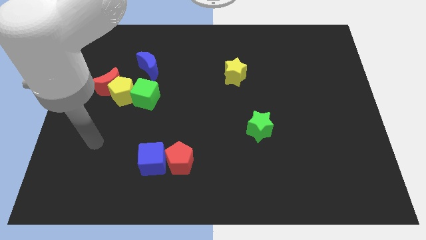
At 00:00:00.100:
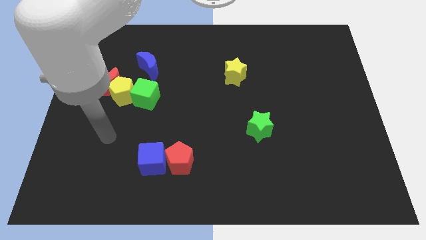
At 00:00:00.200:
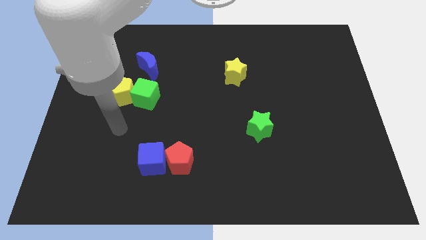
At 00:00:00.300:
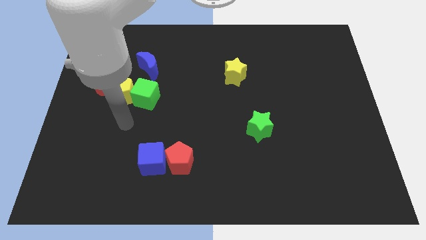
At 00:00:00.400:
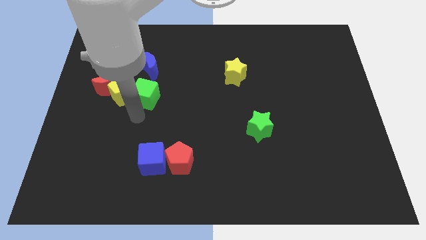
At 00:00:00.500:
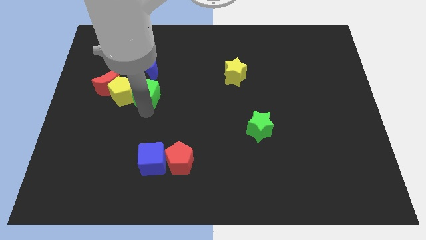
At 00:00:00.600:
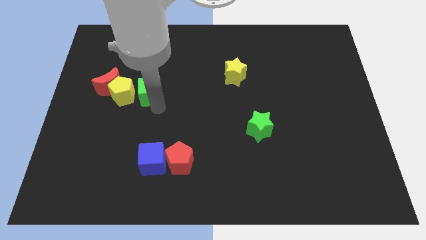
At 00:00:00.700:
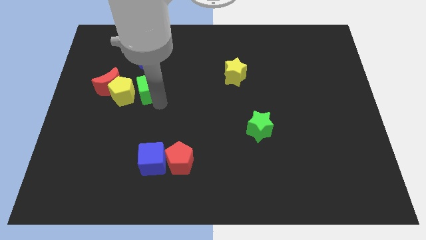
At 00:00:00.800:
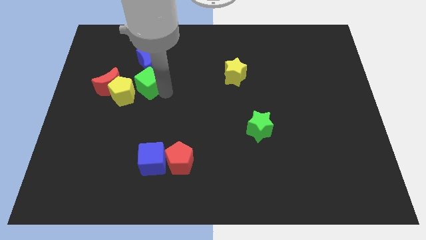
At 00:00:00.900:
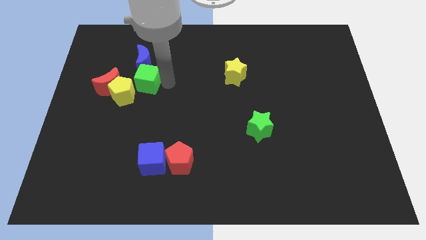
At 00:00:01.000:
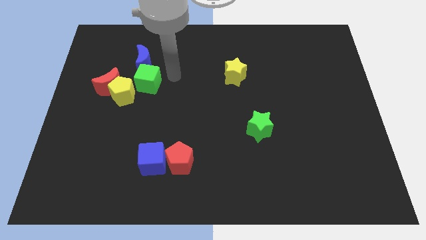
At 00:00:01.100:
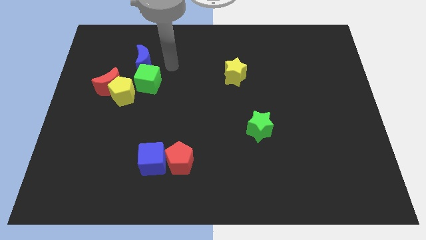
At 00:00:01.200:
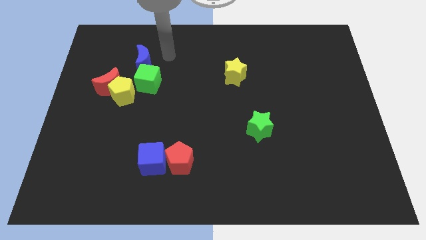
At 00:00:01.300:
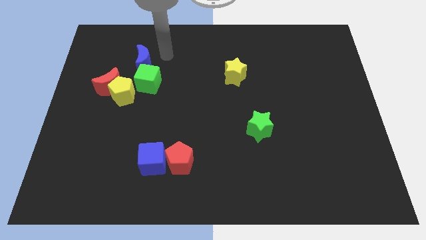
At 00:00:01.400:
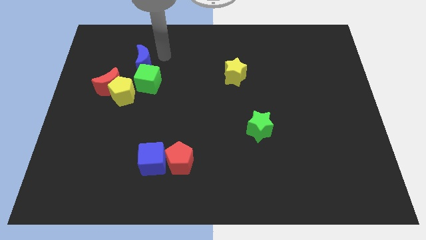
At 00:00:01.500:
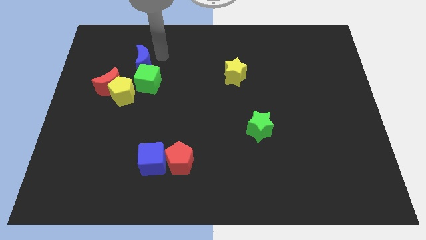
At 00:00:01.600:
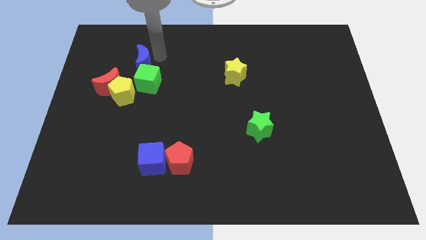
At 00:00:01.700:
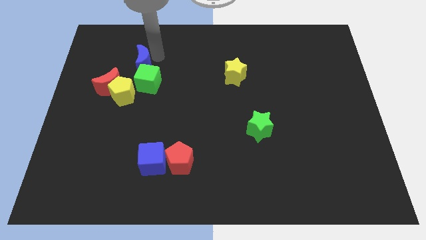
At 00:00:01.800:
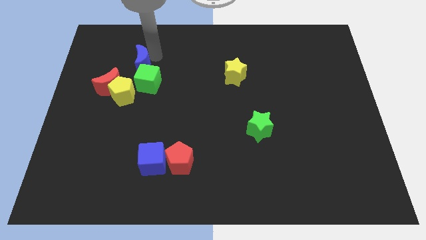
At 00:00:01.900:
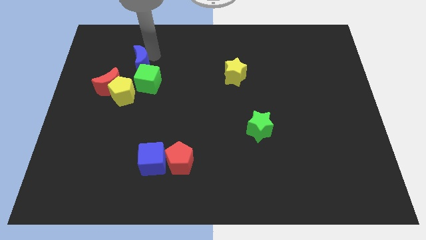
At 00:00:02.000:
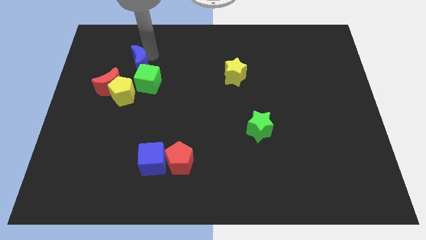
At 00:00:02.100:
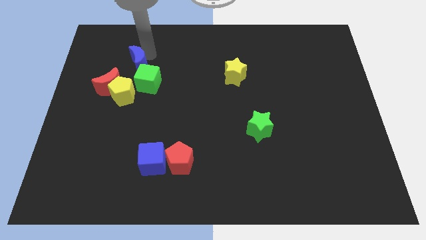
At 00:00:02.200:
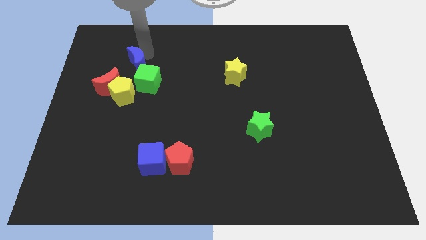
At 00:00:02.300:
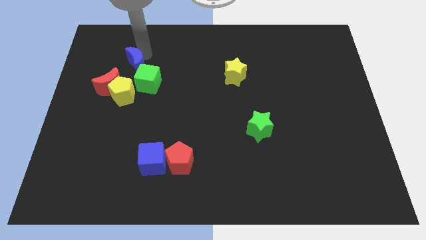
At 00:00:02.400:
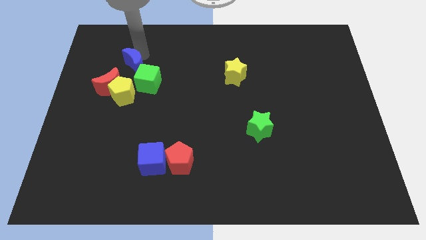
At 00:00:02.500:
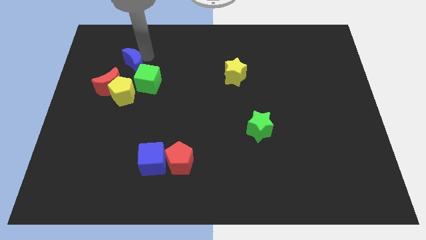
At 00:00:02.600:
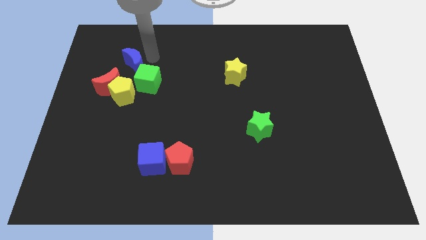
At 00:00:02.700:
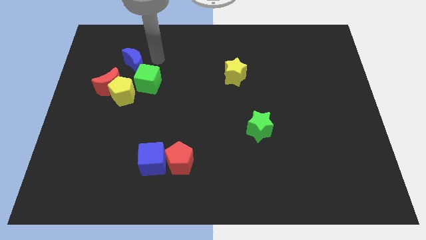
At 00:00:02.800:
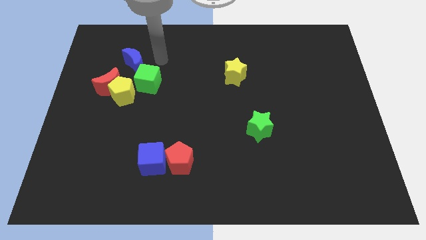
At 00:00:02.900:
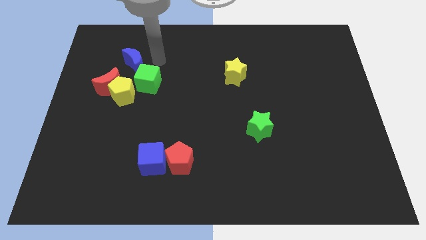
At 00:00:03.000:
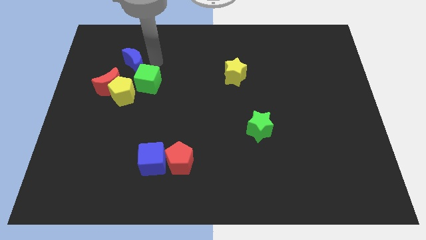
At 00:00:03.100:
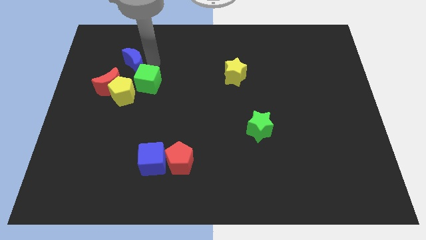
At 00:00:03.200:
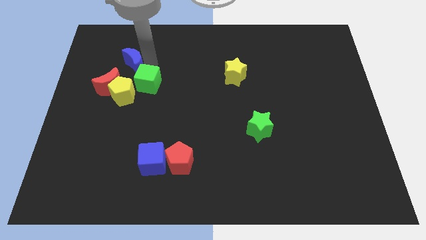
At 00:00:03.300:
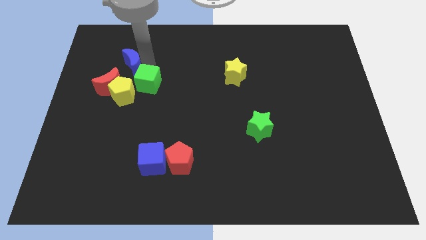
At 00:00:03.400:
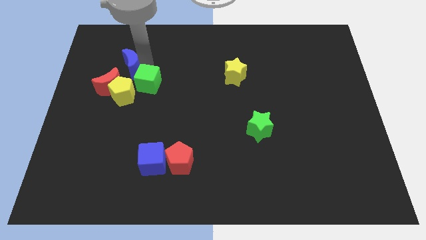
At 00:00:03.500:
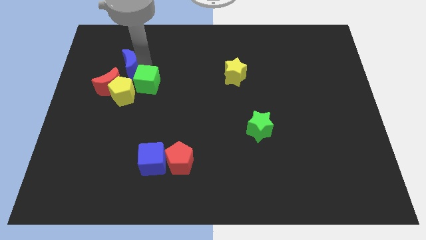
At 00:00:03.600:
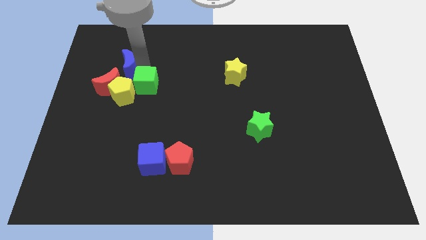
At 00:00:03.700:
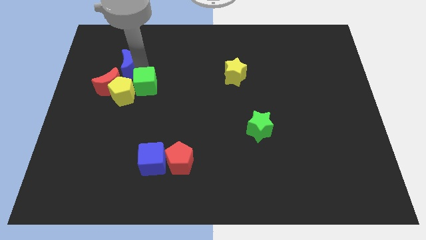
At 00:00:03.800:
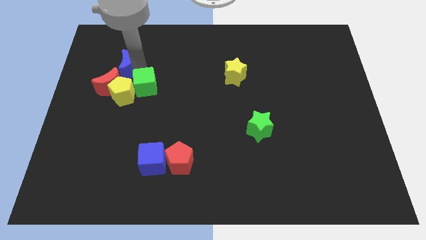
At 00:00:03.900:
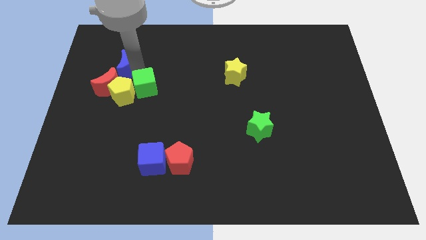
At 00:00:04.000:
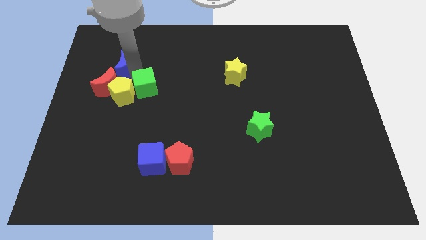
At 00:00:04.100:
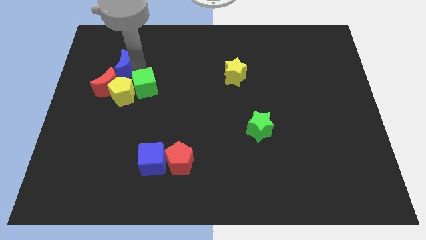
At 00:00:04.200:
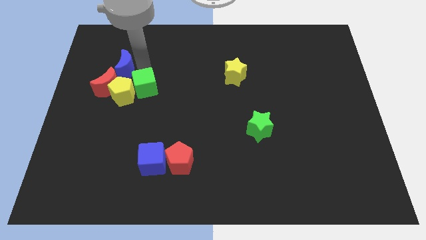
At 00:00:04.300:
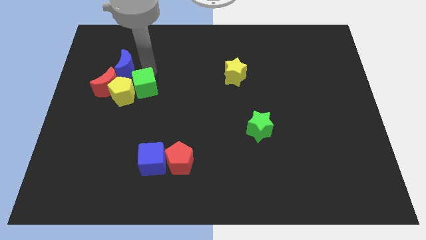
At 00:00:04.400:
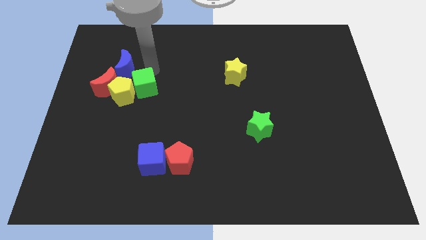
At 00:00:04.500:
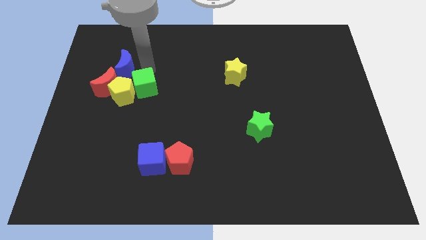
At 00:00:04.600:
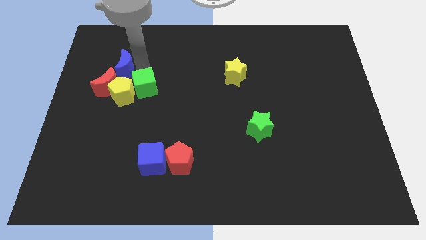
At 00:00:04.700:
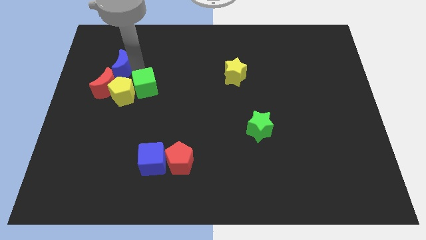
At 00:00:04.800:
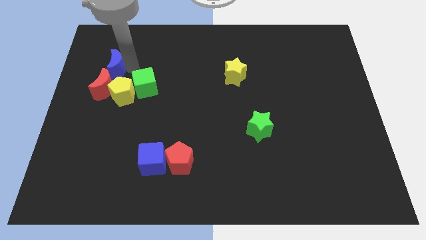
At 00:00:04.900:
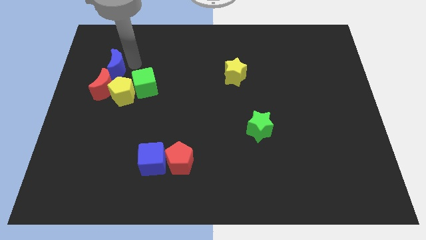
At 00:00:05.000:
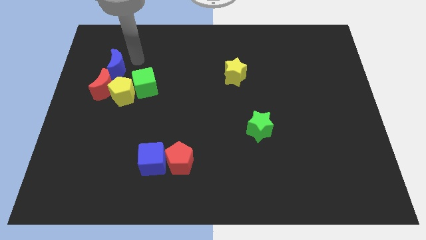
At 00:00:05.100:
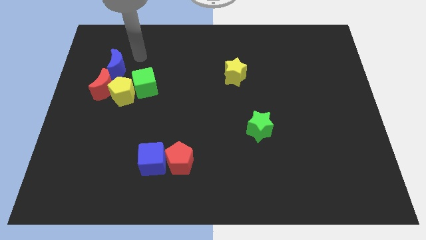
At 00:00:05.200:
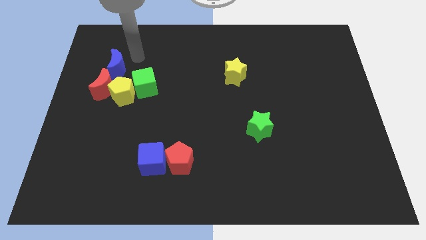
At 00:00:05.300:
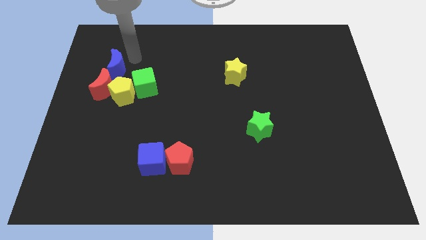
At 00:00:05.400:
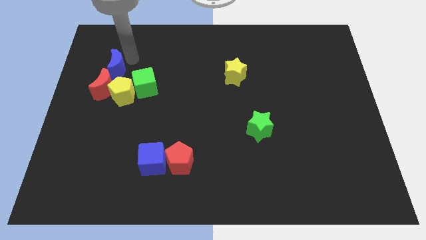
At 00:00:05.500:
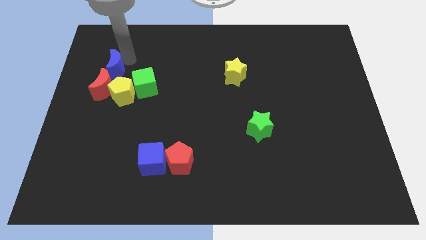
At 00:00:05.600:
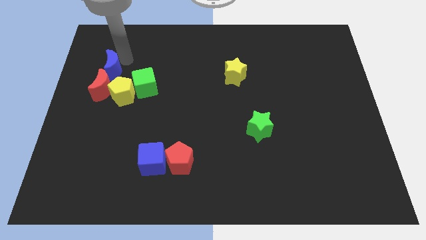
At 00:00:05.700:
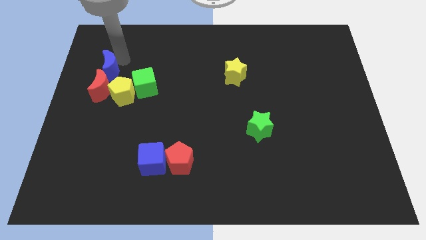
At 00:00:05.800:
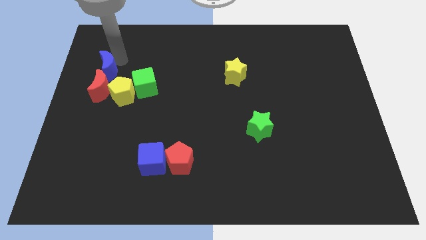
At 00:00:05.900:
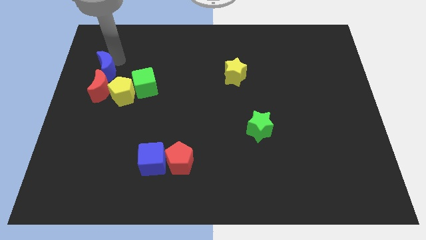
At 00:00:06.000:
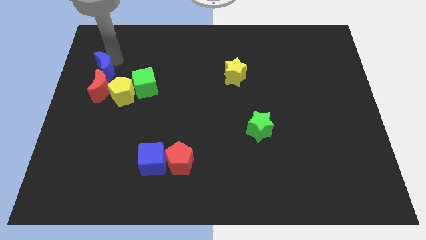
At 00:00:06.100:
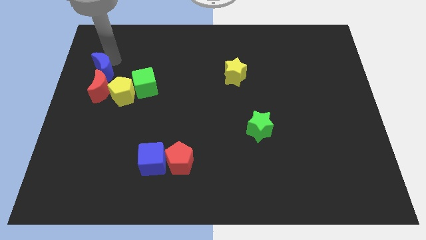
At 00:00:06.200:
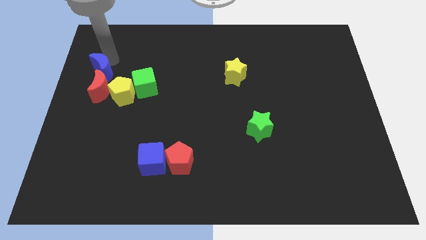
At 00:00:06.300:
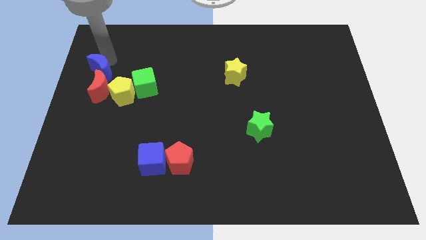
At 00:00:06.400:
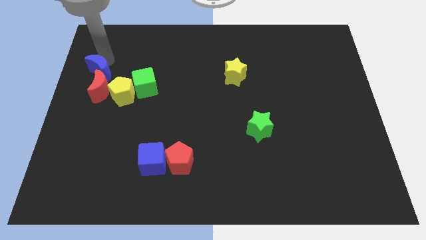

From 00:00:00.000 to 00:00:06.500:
move the blue moon to the center left

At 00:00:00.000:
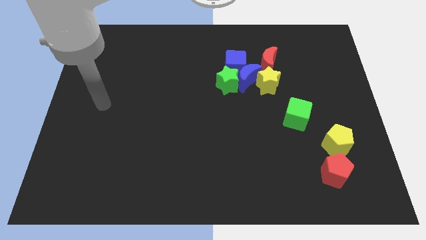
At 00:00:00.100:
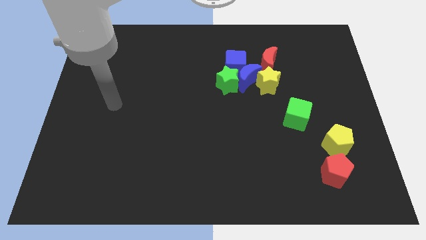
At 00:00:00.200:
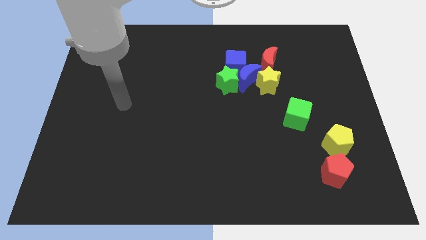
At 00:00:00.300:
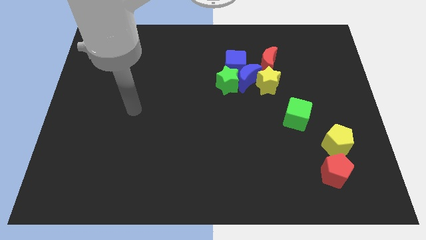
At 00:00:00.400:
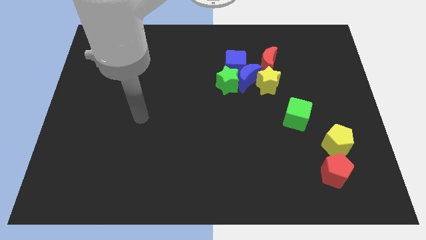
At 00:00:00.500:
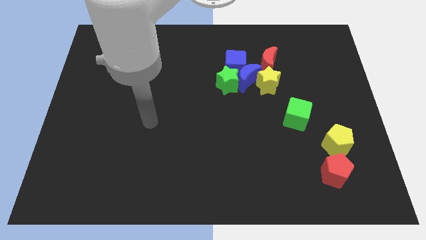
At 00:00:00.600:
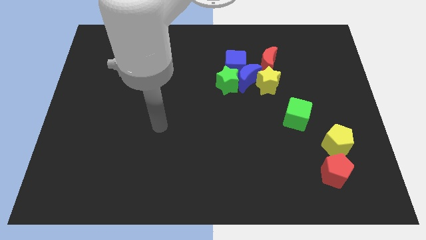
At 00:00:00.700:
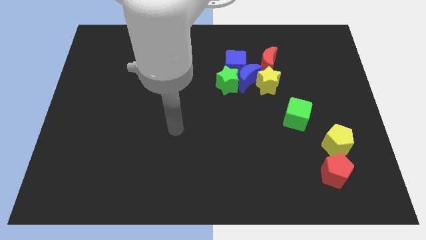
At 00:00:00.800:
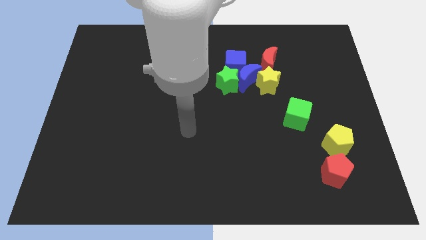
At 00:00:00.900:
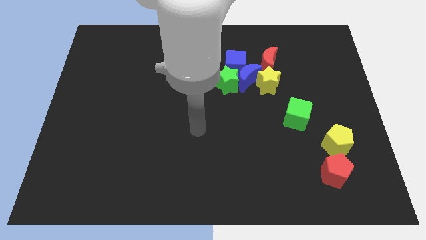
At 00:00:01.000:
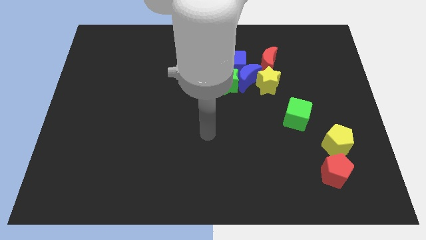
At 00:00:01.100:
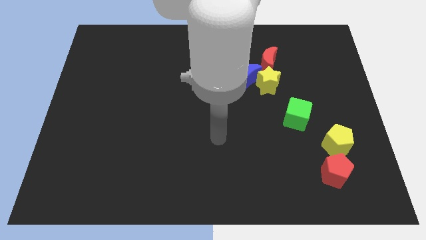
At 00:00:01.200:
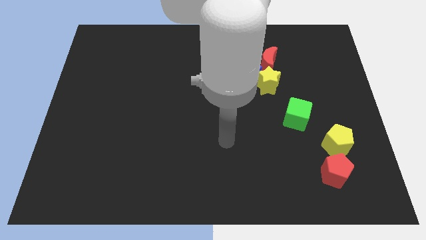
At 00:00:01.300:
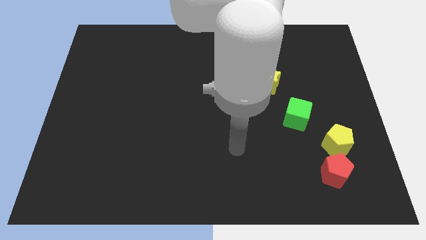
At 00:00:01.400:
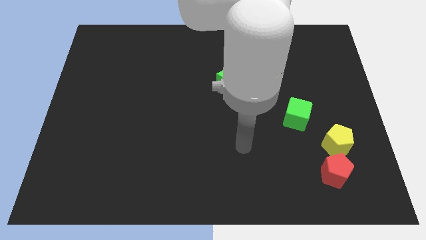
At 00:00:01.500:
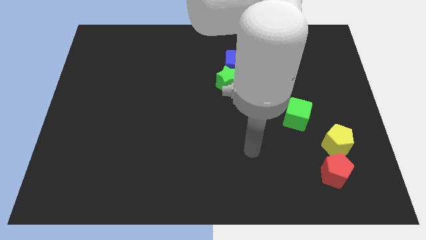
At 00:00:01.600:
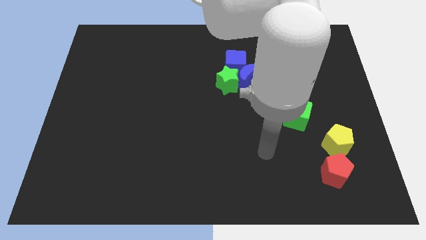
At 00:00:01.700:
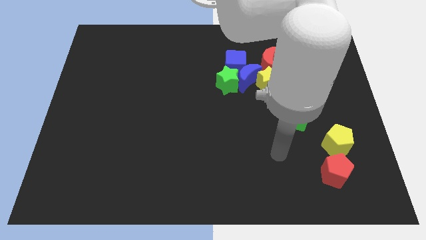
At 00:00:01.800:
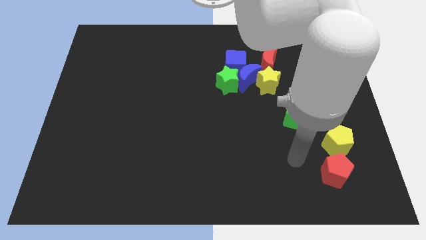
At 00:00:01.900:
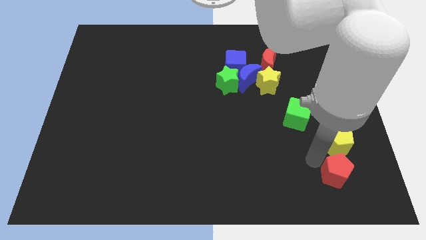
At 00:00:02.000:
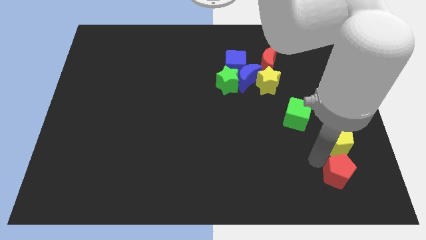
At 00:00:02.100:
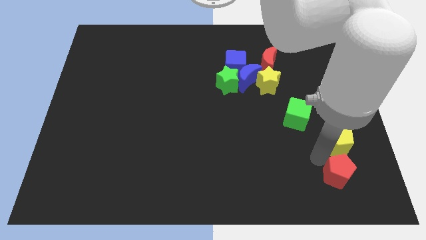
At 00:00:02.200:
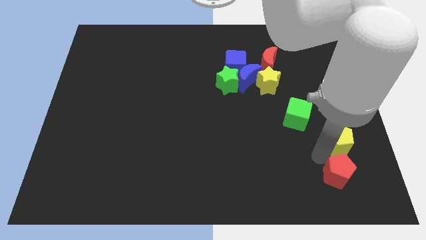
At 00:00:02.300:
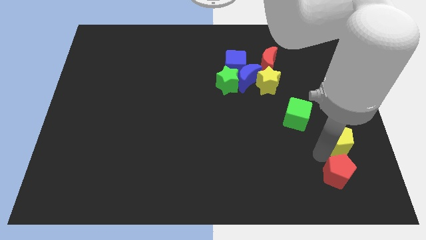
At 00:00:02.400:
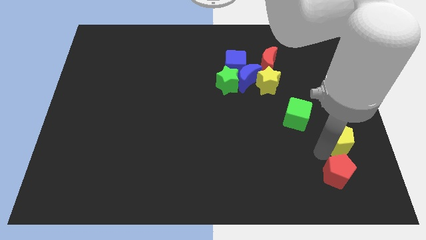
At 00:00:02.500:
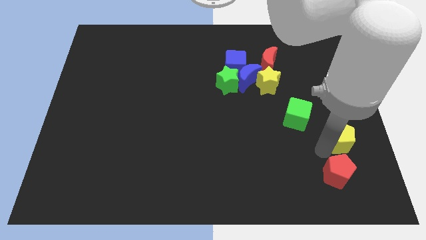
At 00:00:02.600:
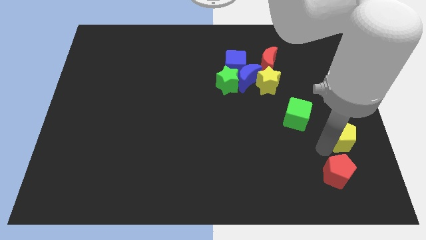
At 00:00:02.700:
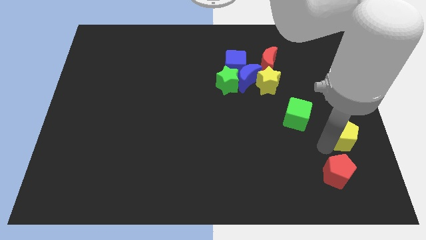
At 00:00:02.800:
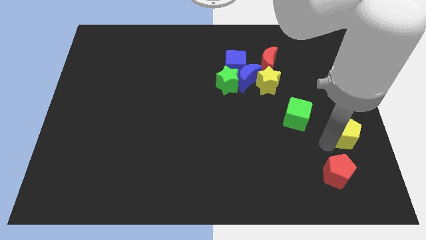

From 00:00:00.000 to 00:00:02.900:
slide the yellow pentagon to the right side
